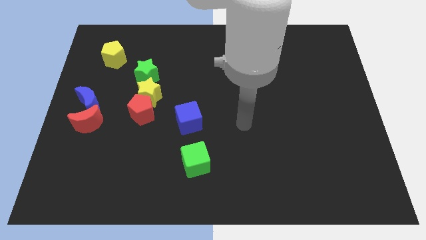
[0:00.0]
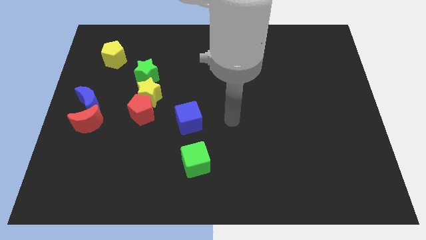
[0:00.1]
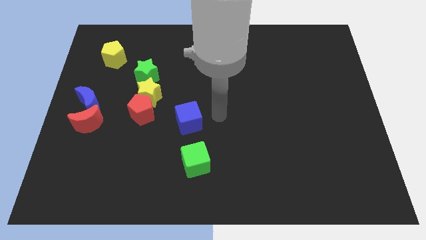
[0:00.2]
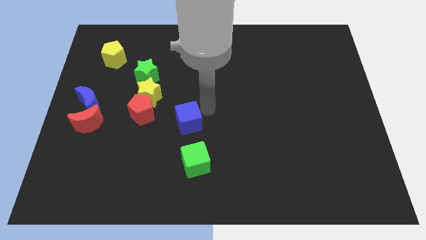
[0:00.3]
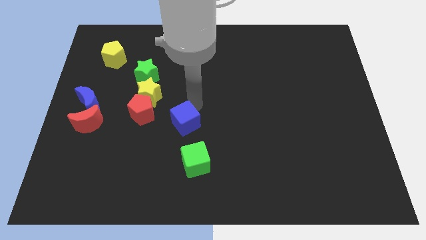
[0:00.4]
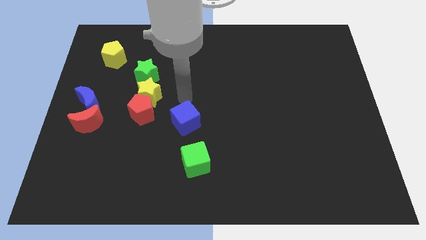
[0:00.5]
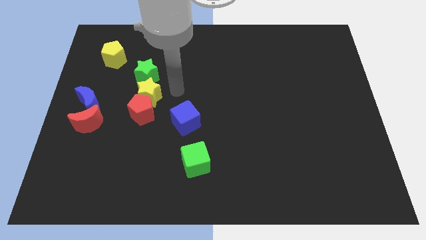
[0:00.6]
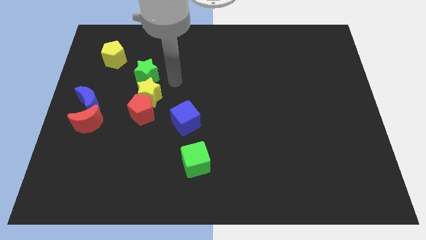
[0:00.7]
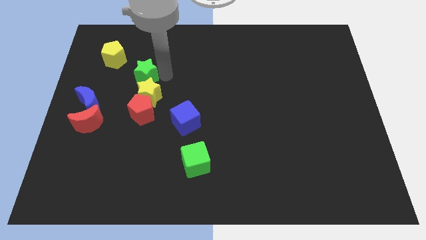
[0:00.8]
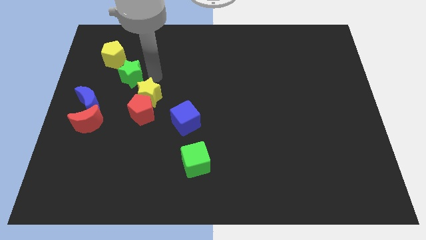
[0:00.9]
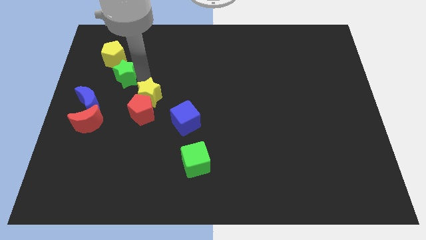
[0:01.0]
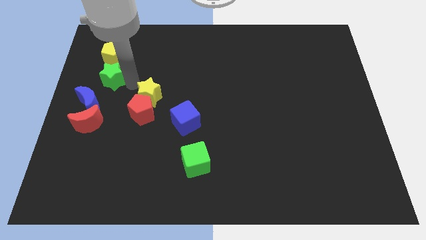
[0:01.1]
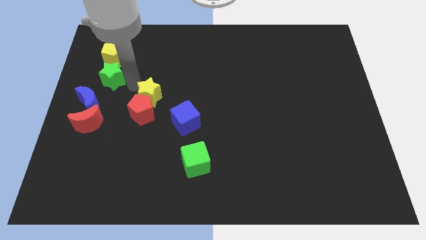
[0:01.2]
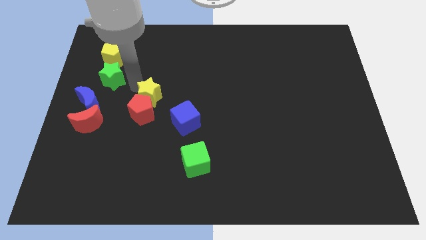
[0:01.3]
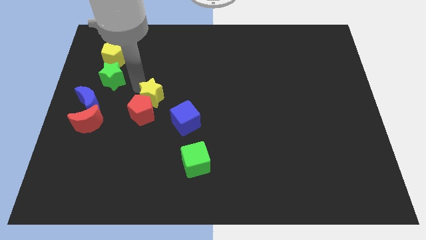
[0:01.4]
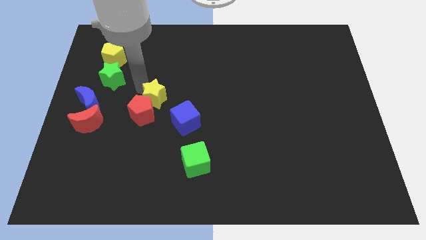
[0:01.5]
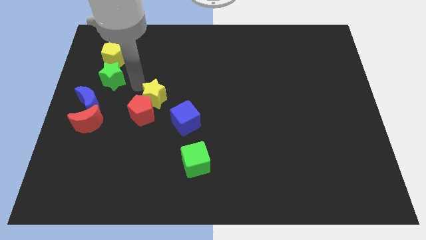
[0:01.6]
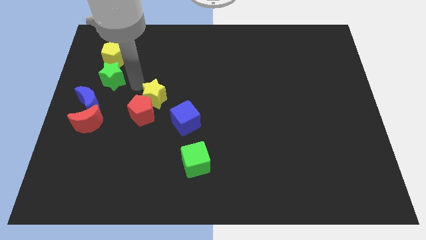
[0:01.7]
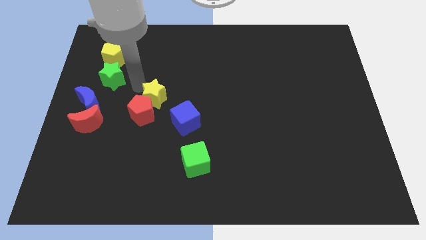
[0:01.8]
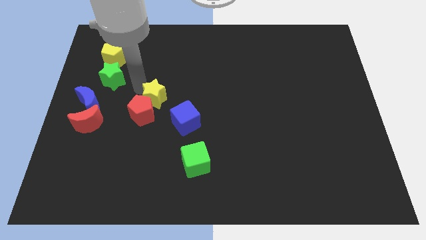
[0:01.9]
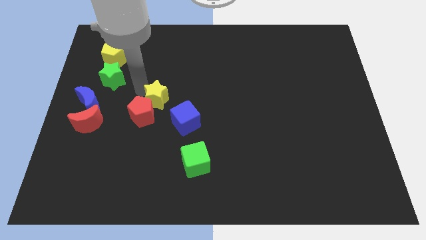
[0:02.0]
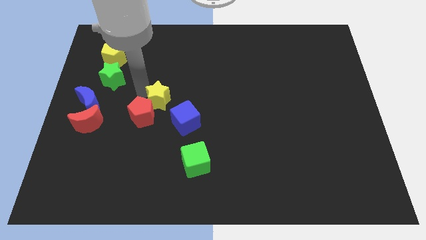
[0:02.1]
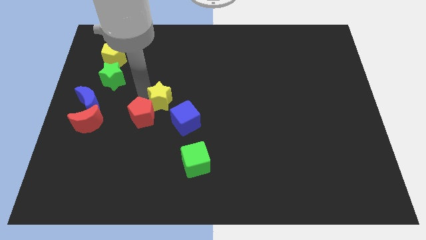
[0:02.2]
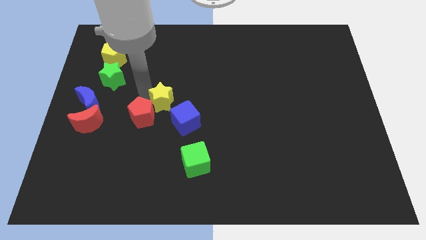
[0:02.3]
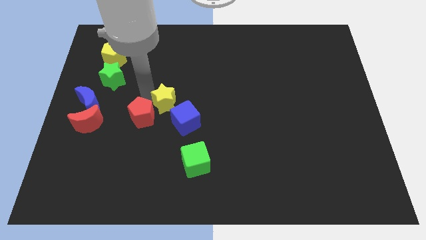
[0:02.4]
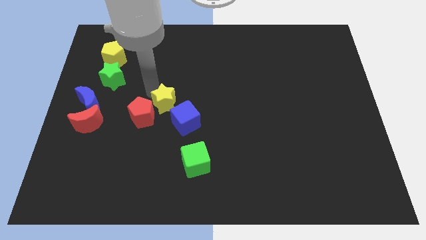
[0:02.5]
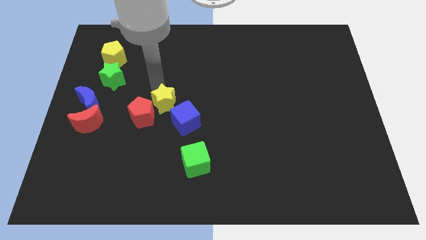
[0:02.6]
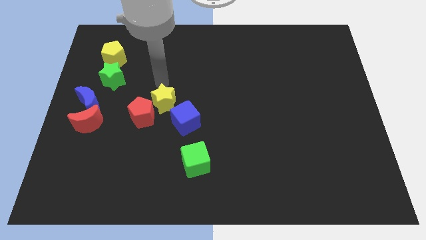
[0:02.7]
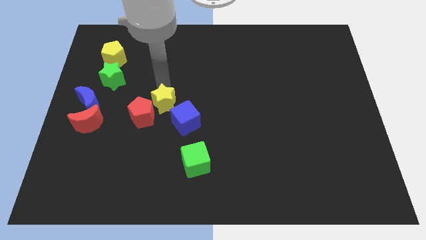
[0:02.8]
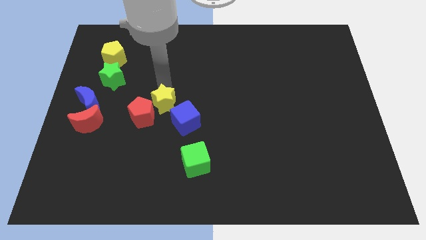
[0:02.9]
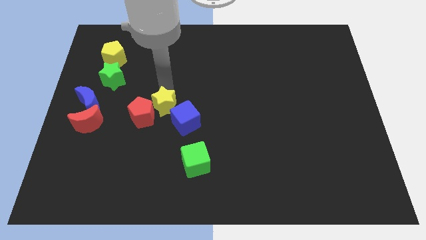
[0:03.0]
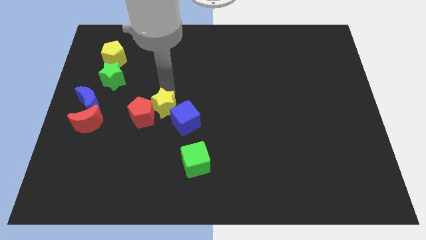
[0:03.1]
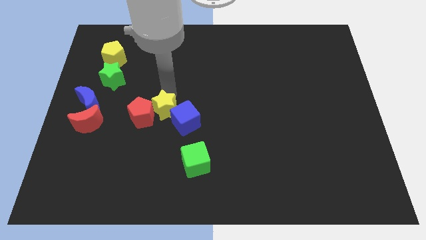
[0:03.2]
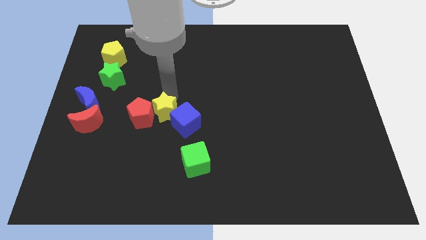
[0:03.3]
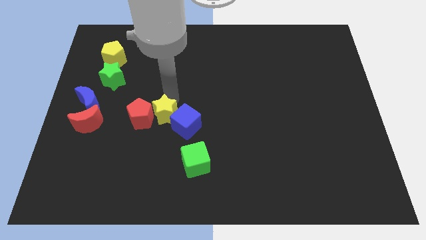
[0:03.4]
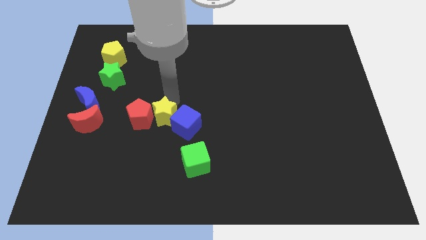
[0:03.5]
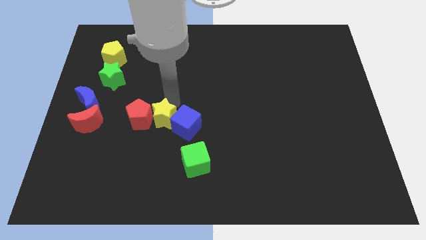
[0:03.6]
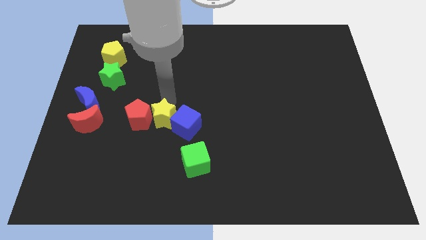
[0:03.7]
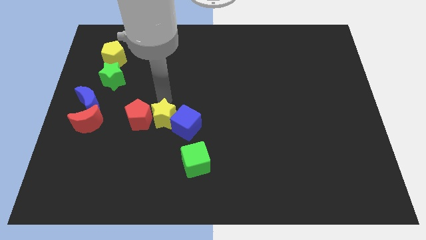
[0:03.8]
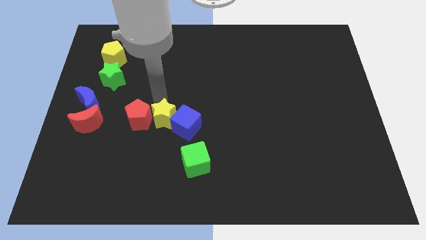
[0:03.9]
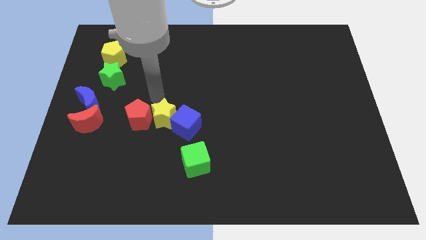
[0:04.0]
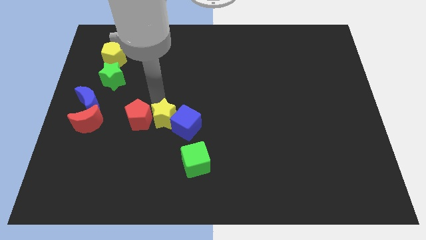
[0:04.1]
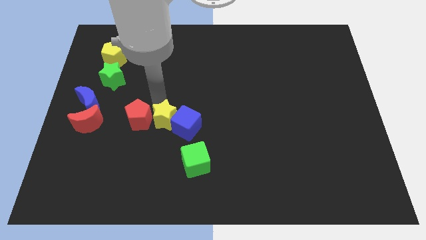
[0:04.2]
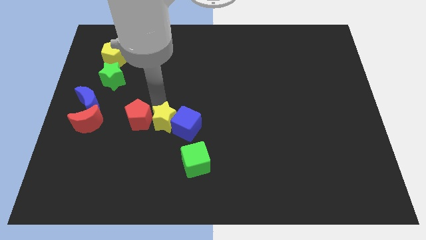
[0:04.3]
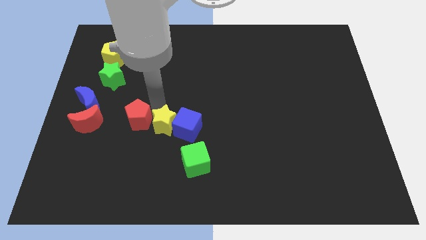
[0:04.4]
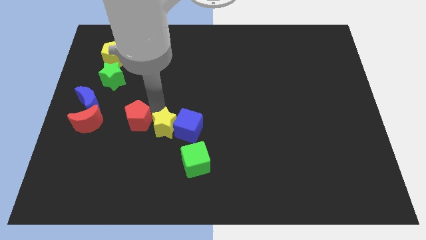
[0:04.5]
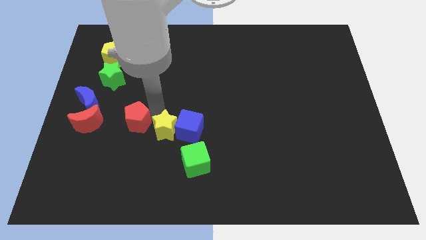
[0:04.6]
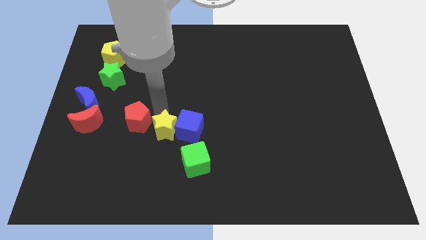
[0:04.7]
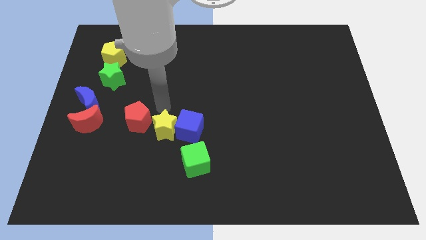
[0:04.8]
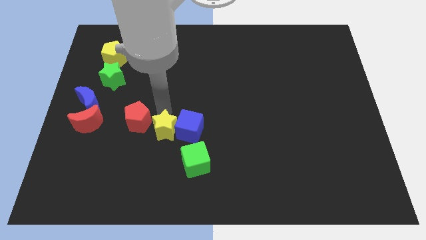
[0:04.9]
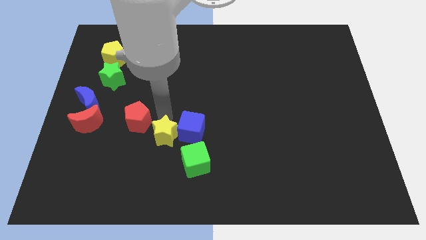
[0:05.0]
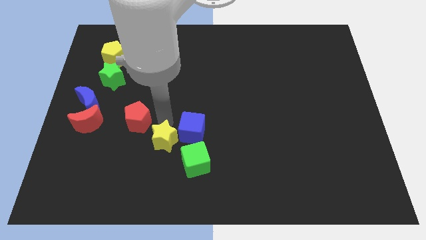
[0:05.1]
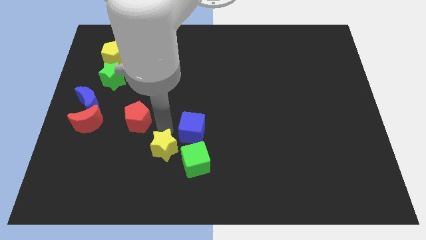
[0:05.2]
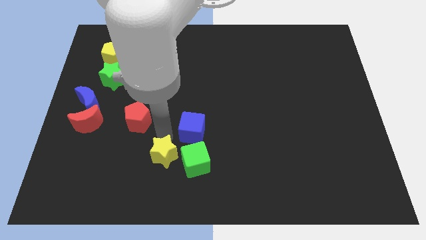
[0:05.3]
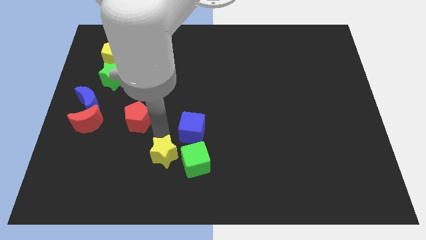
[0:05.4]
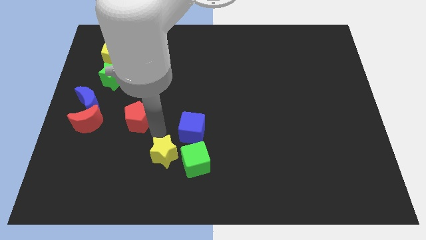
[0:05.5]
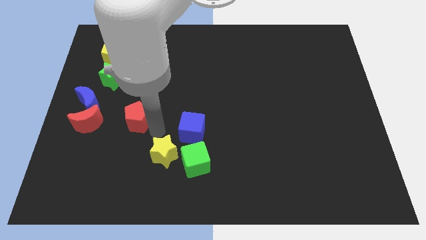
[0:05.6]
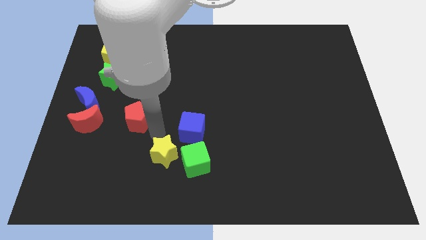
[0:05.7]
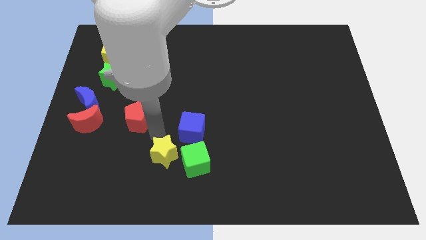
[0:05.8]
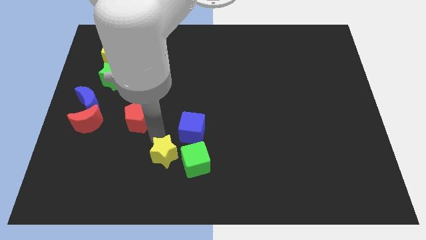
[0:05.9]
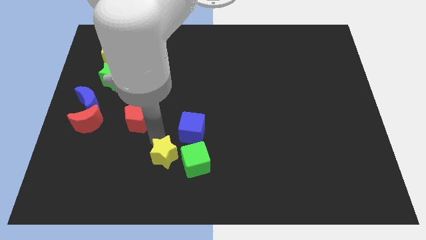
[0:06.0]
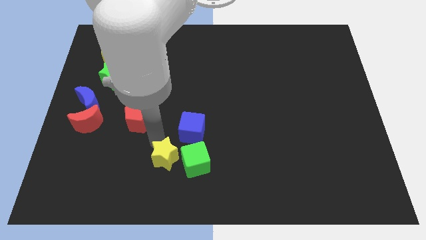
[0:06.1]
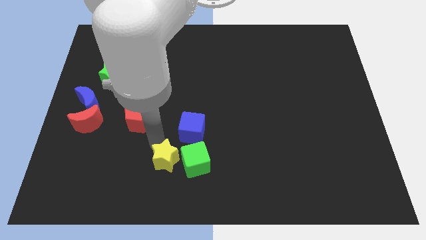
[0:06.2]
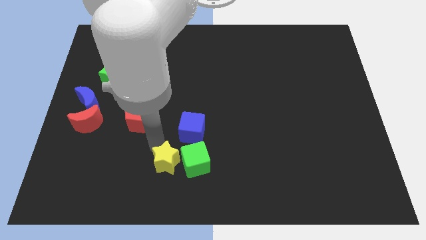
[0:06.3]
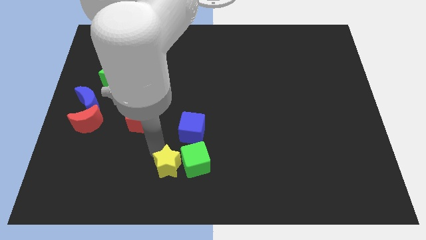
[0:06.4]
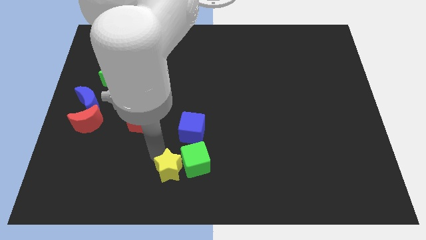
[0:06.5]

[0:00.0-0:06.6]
slide the yellow star to the bottom

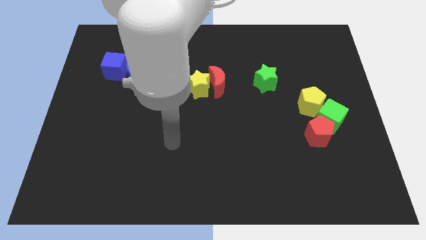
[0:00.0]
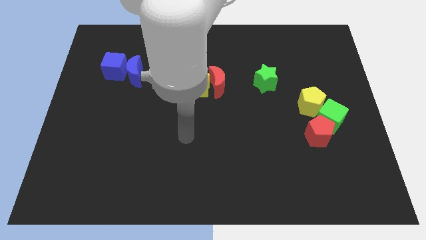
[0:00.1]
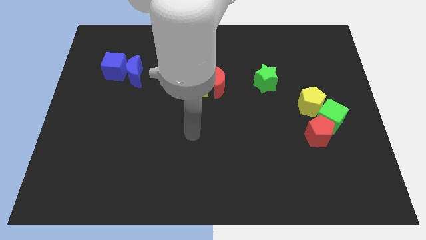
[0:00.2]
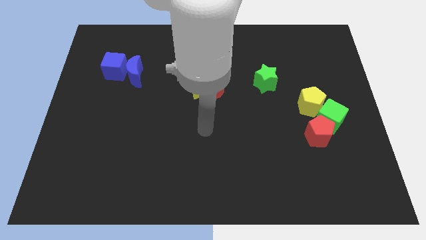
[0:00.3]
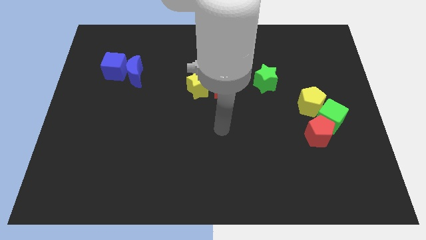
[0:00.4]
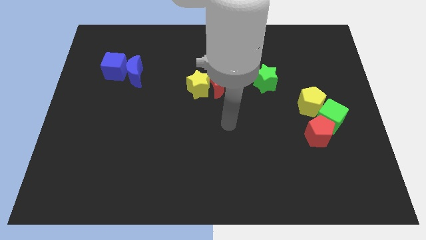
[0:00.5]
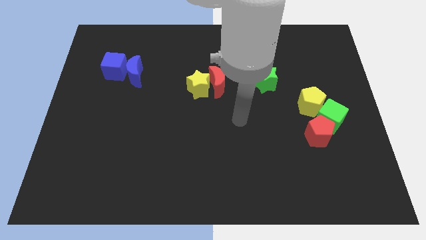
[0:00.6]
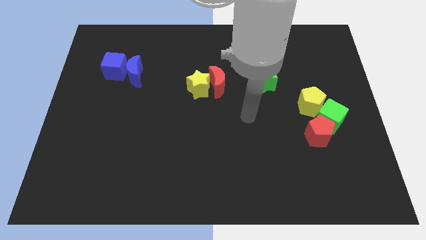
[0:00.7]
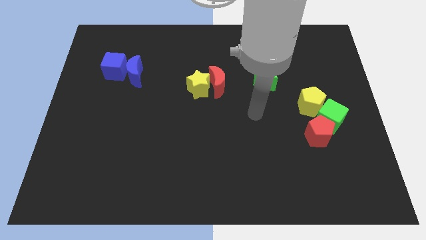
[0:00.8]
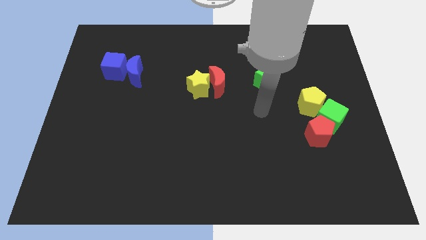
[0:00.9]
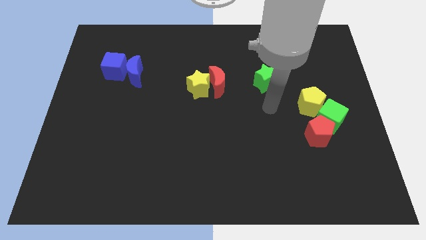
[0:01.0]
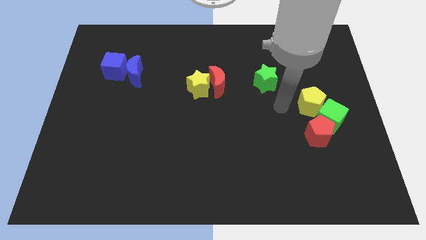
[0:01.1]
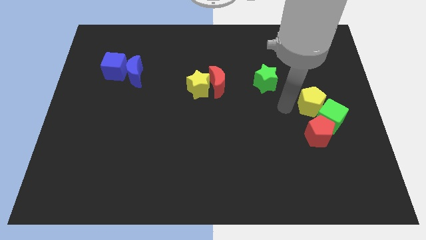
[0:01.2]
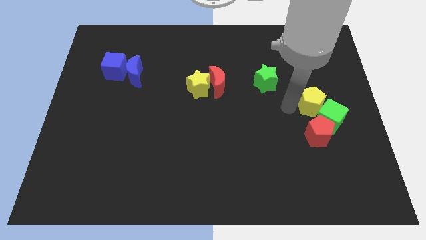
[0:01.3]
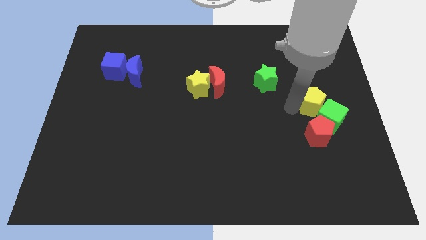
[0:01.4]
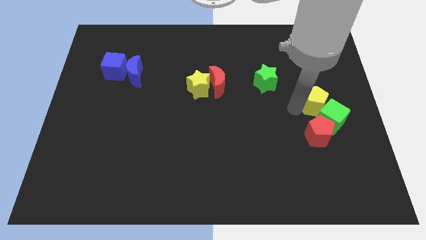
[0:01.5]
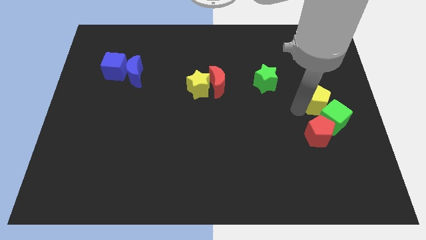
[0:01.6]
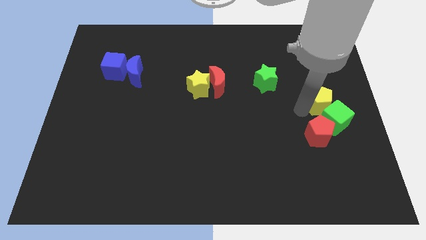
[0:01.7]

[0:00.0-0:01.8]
put the yellow pentagon to the right side
